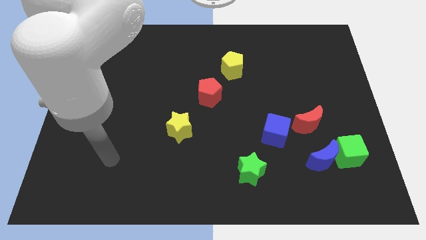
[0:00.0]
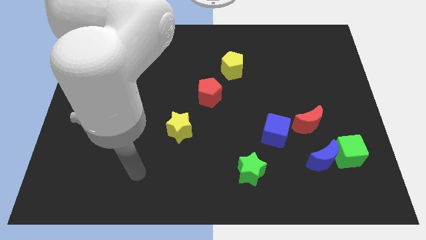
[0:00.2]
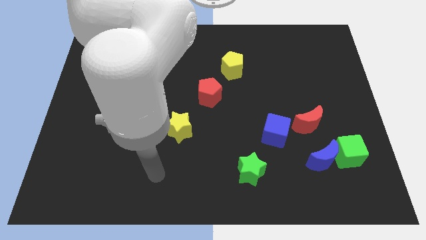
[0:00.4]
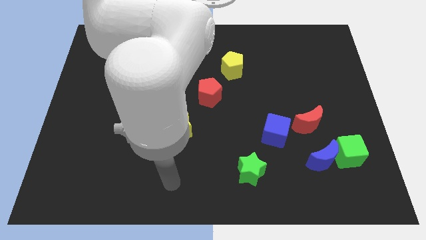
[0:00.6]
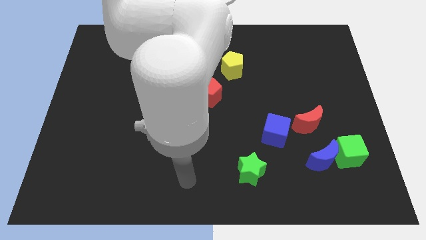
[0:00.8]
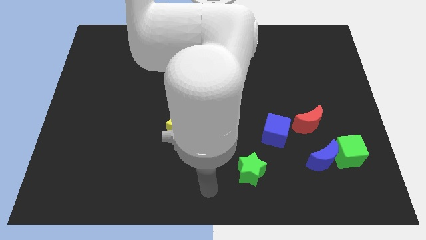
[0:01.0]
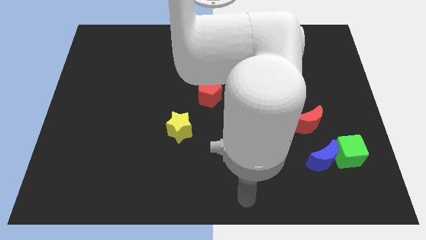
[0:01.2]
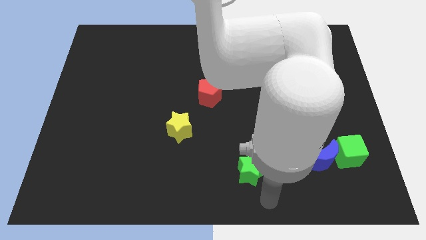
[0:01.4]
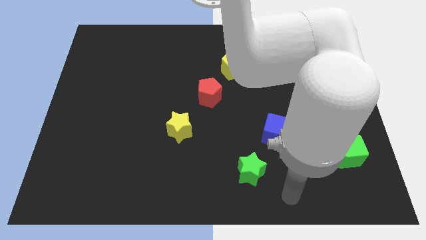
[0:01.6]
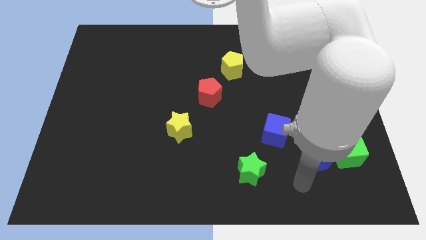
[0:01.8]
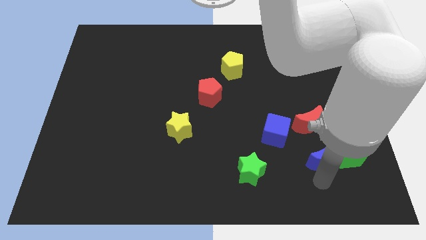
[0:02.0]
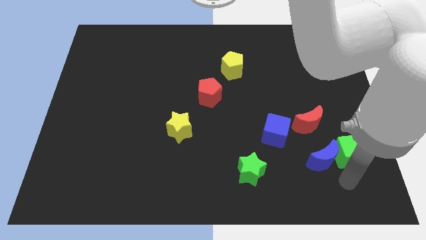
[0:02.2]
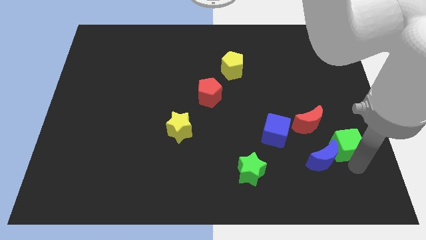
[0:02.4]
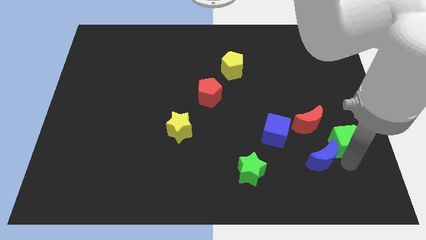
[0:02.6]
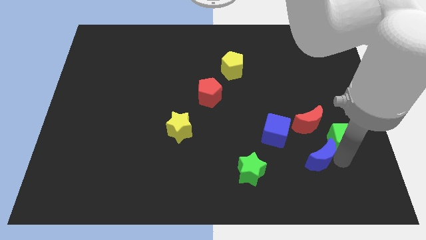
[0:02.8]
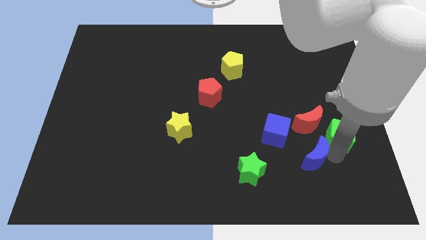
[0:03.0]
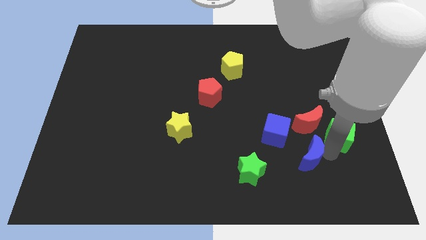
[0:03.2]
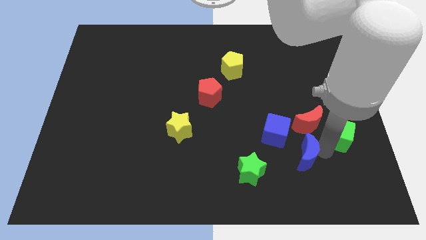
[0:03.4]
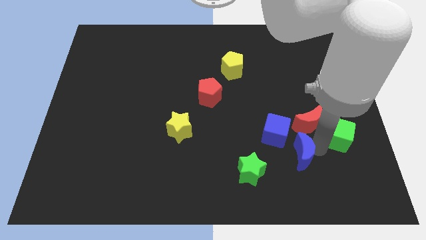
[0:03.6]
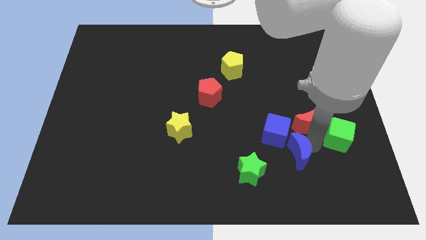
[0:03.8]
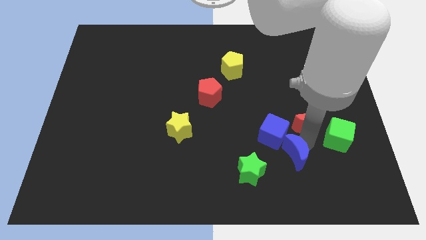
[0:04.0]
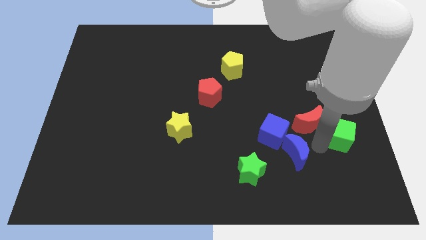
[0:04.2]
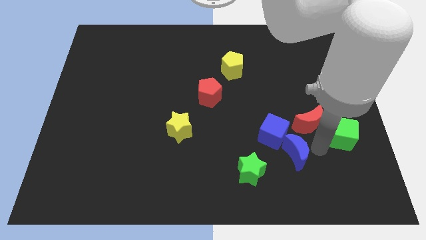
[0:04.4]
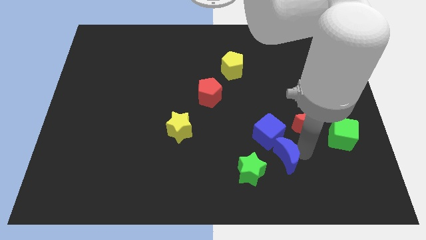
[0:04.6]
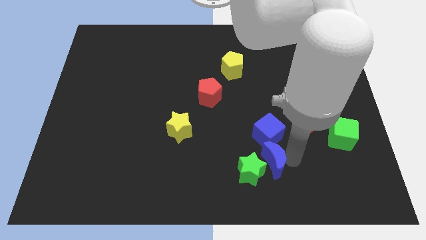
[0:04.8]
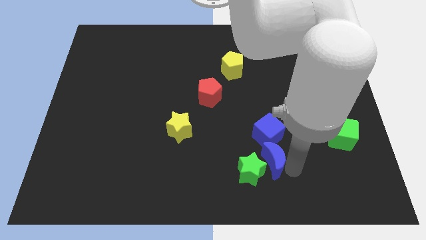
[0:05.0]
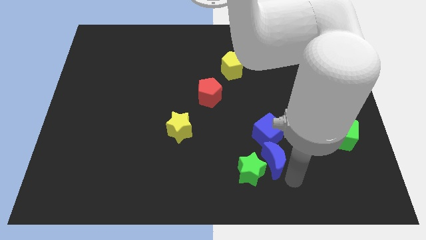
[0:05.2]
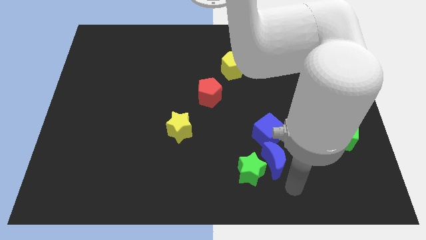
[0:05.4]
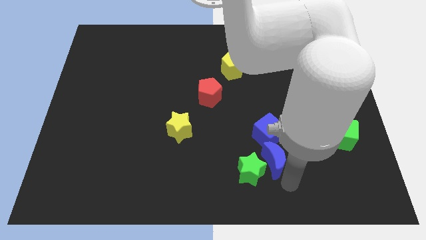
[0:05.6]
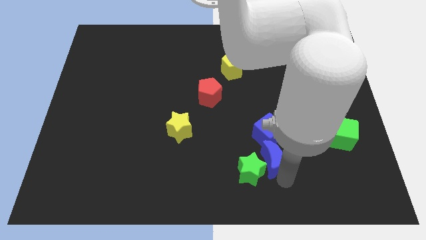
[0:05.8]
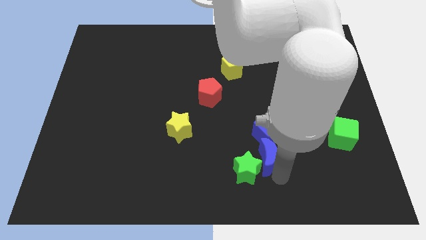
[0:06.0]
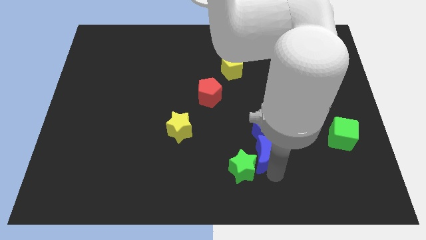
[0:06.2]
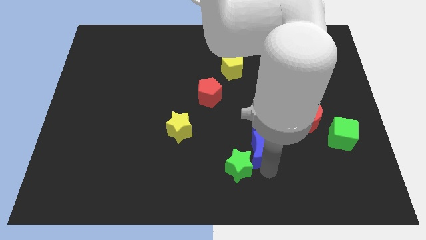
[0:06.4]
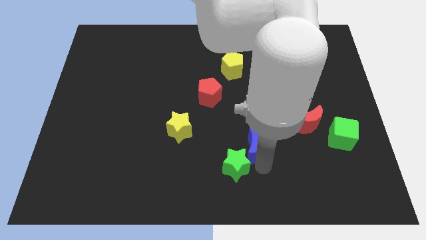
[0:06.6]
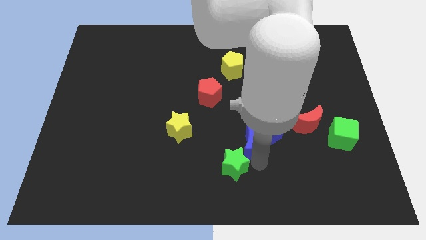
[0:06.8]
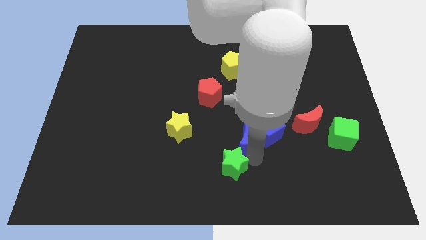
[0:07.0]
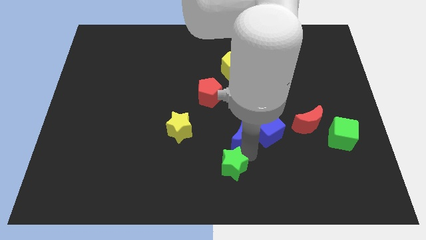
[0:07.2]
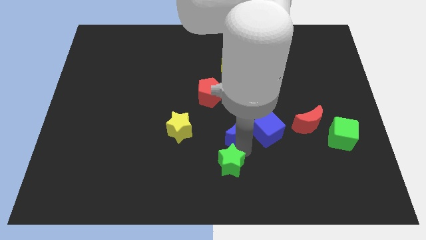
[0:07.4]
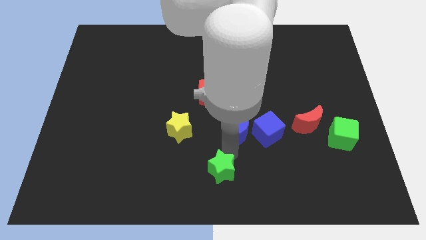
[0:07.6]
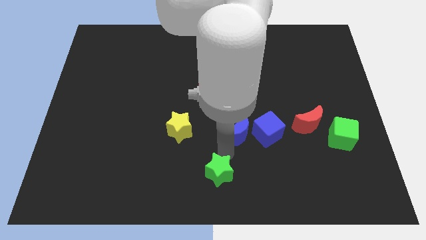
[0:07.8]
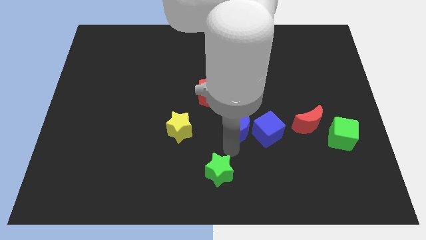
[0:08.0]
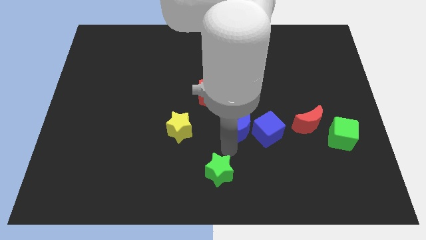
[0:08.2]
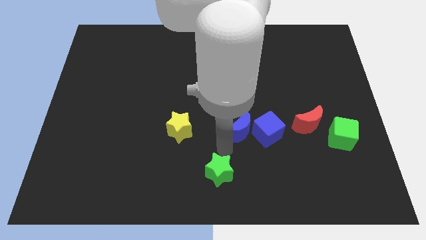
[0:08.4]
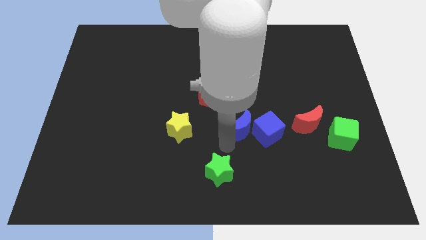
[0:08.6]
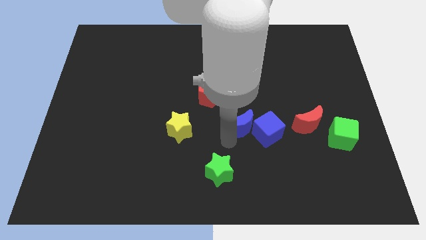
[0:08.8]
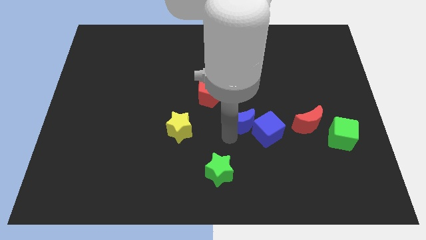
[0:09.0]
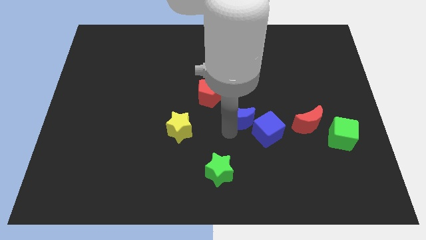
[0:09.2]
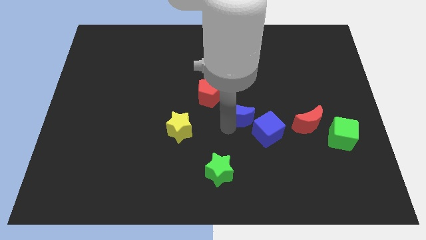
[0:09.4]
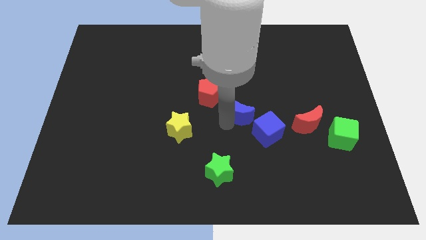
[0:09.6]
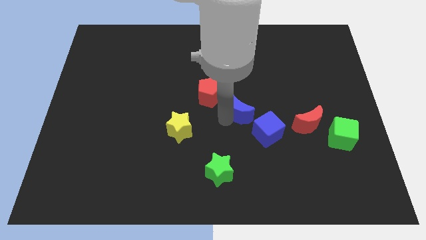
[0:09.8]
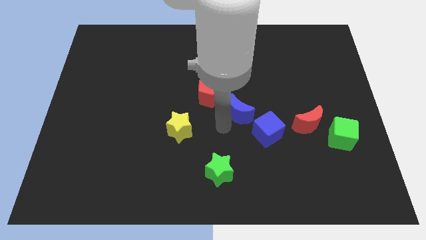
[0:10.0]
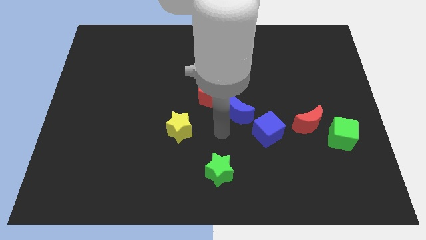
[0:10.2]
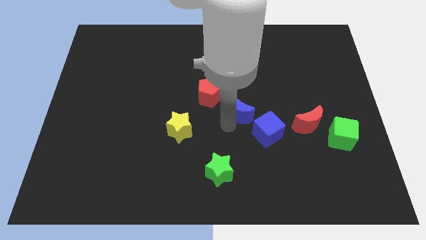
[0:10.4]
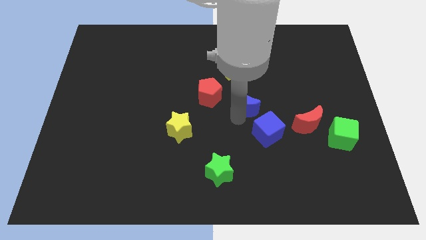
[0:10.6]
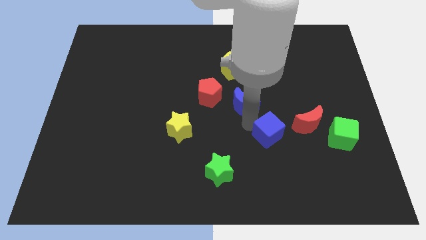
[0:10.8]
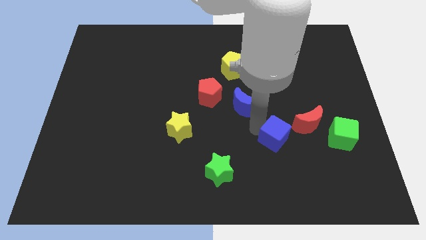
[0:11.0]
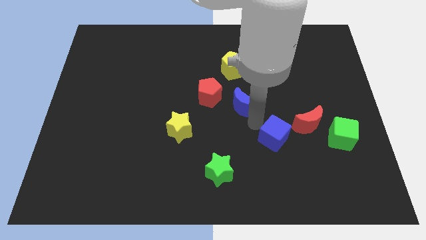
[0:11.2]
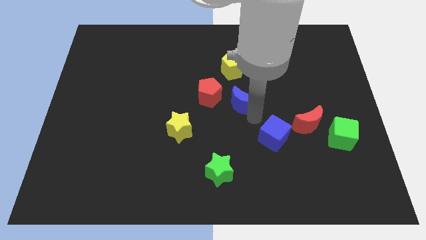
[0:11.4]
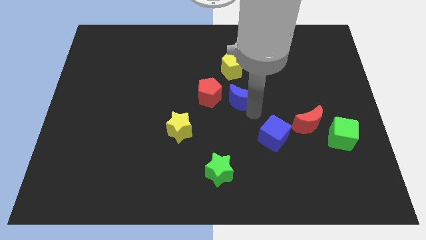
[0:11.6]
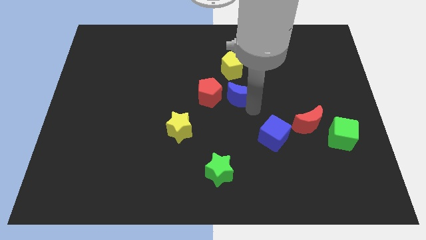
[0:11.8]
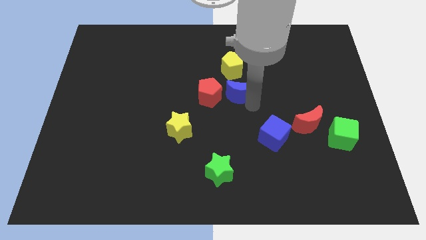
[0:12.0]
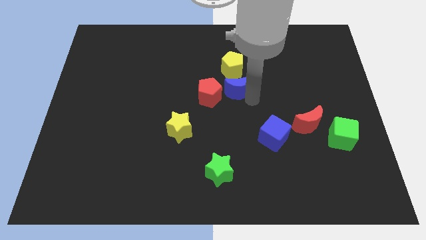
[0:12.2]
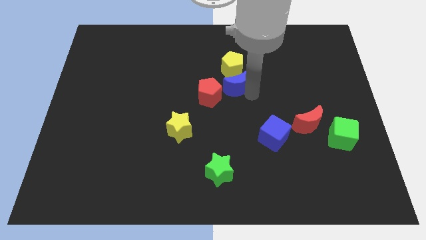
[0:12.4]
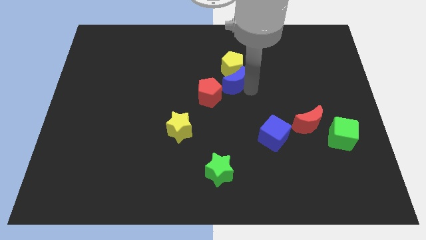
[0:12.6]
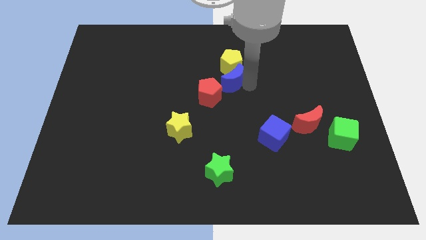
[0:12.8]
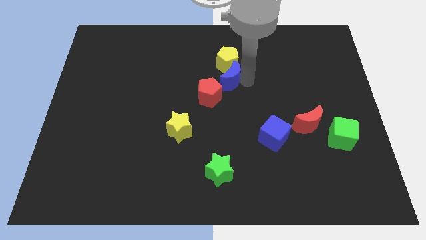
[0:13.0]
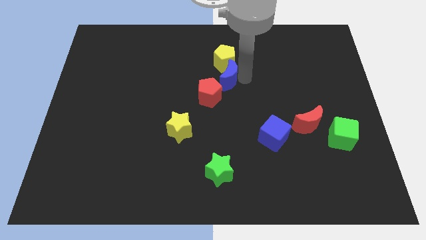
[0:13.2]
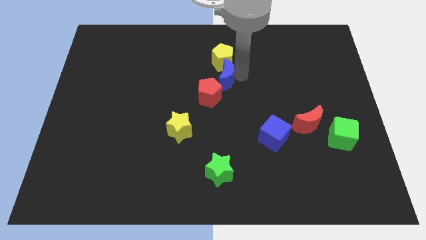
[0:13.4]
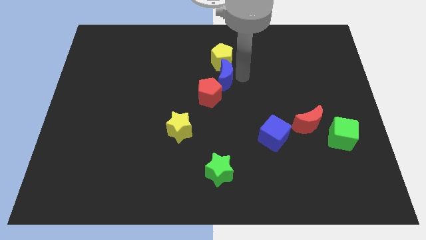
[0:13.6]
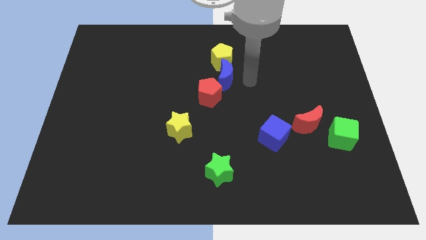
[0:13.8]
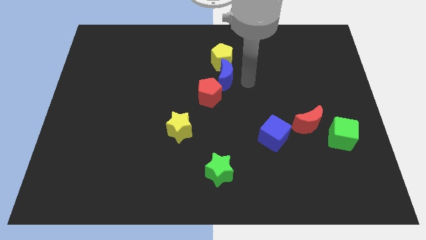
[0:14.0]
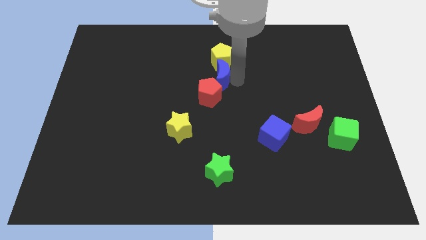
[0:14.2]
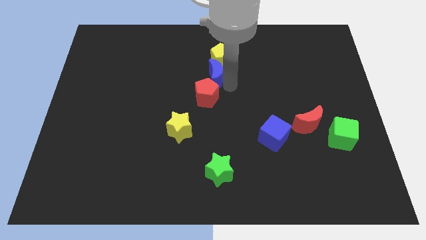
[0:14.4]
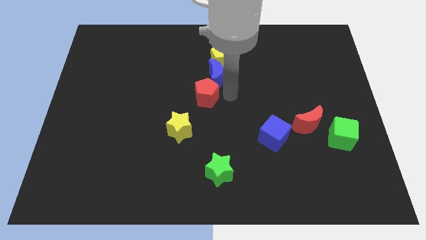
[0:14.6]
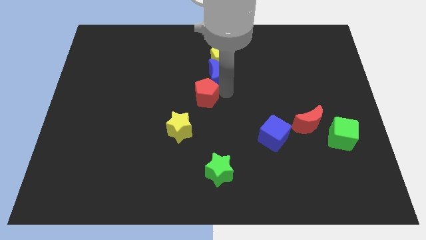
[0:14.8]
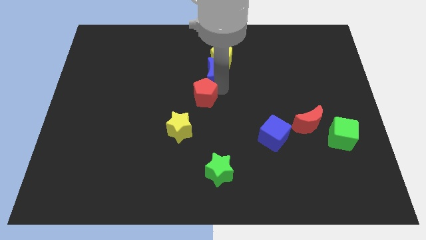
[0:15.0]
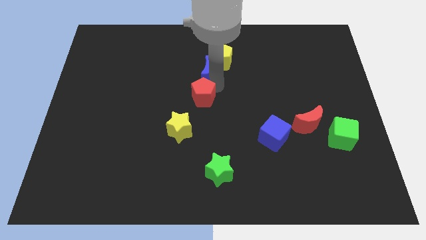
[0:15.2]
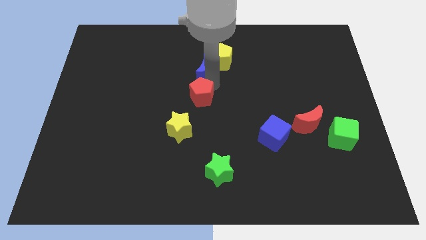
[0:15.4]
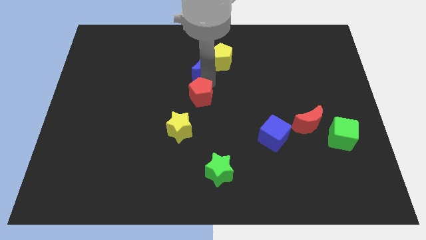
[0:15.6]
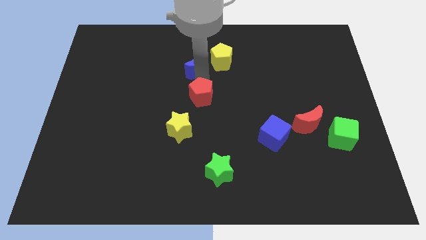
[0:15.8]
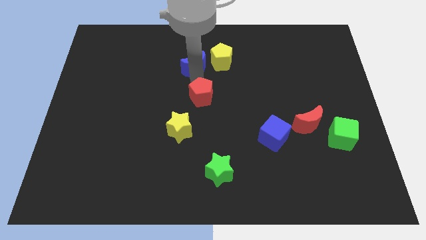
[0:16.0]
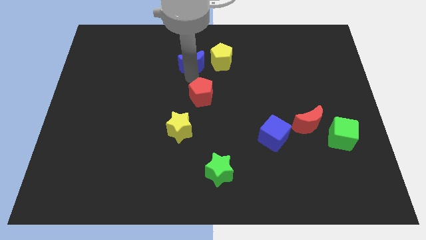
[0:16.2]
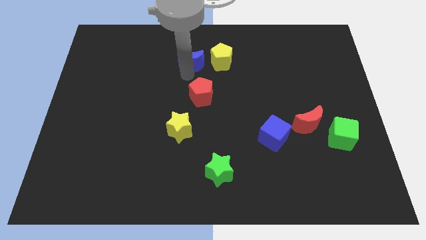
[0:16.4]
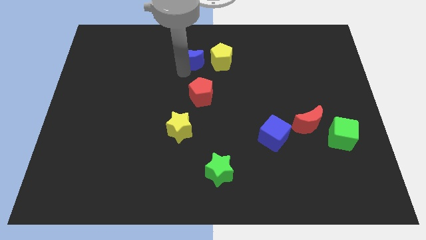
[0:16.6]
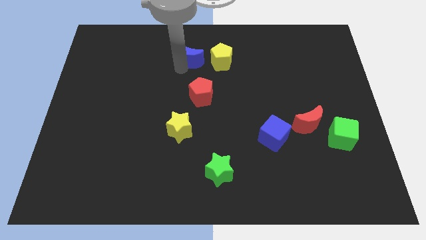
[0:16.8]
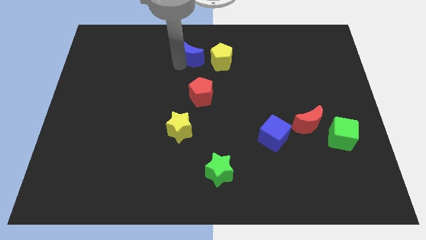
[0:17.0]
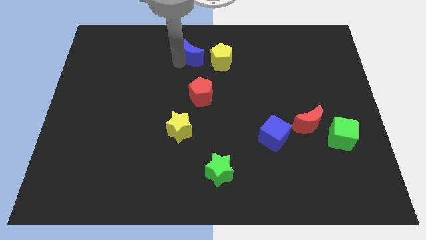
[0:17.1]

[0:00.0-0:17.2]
slide the blue moon to the top left side of the yellow pentagon
